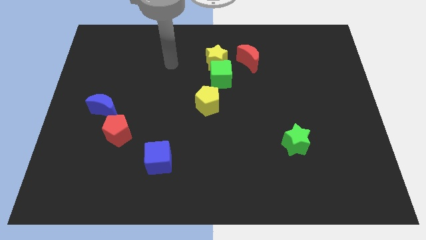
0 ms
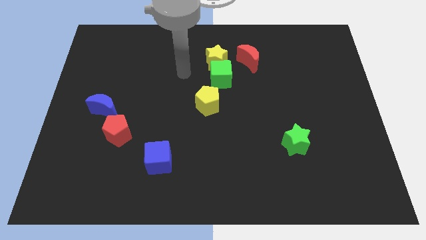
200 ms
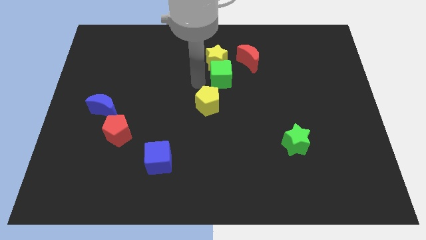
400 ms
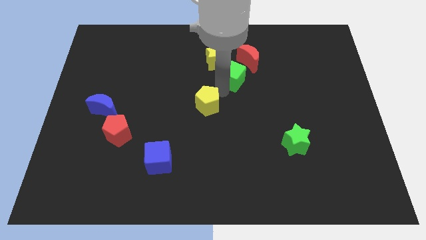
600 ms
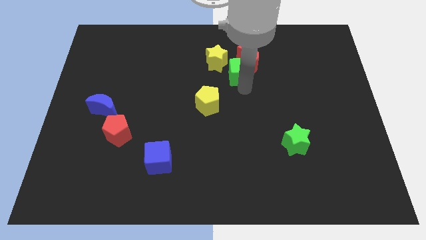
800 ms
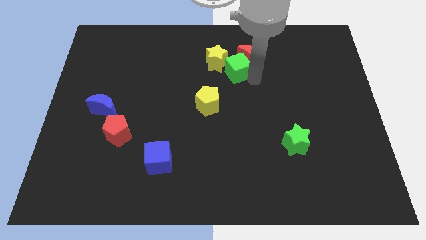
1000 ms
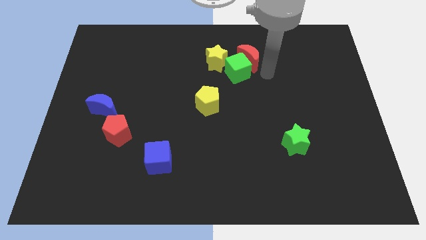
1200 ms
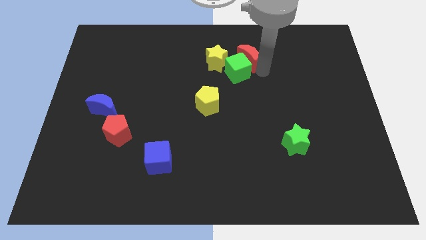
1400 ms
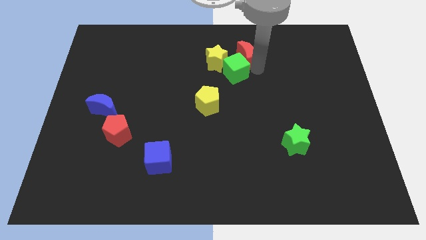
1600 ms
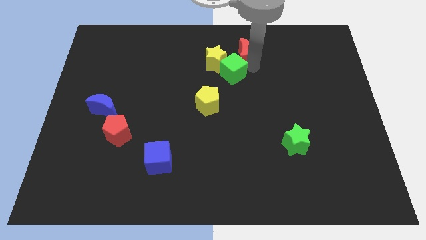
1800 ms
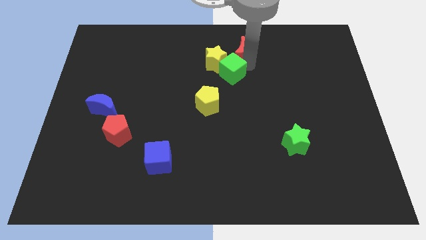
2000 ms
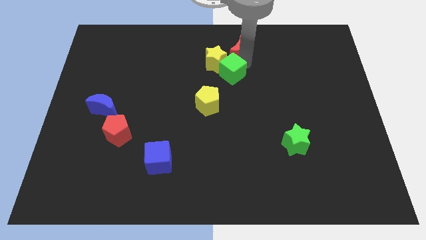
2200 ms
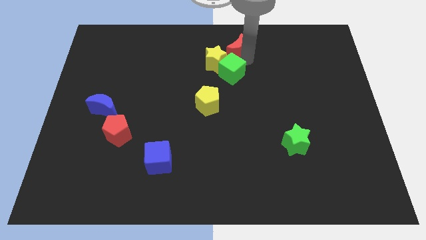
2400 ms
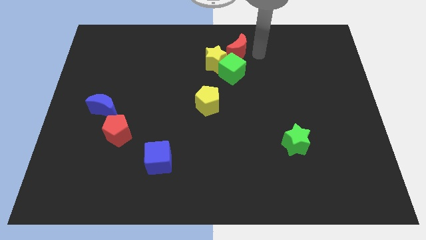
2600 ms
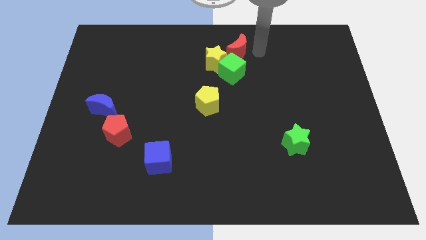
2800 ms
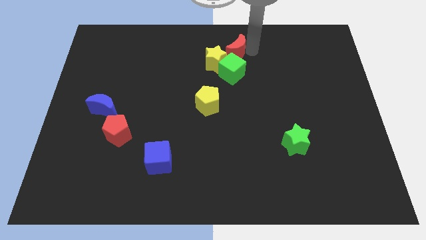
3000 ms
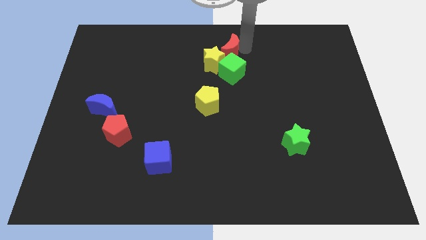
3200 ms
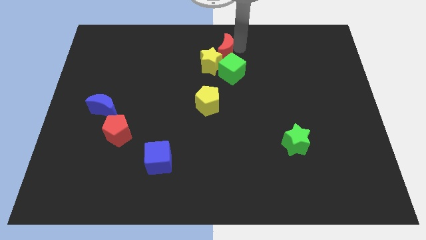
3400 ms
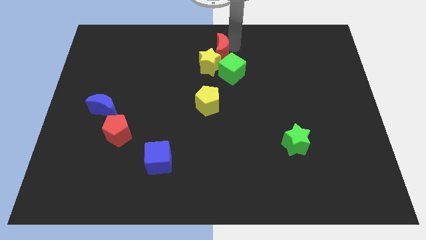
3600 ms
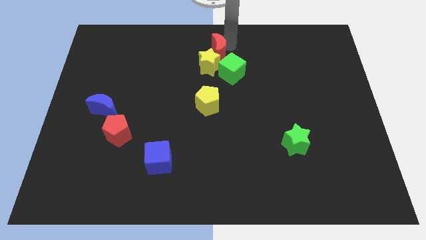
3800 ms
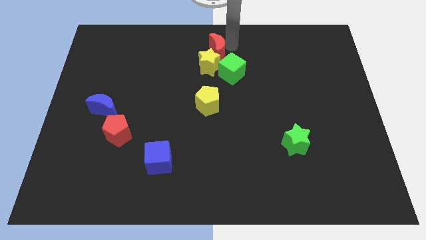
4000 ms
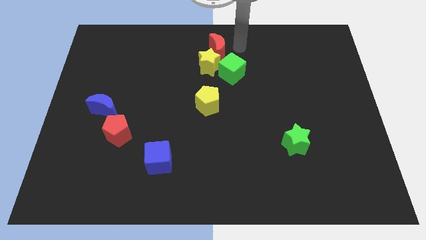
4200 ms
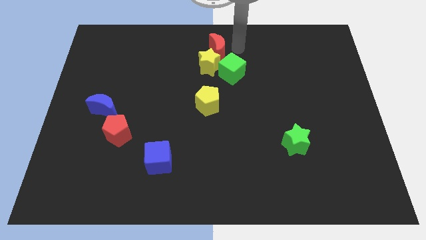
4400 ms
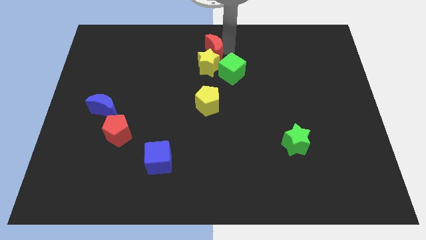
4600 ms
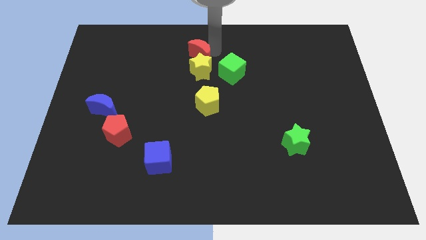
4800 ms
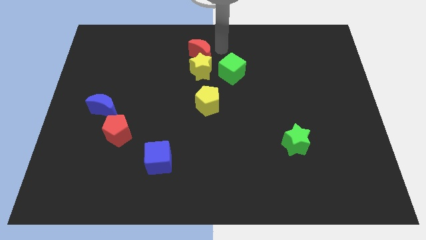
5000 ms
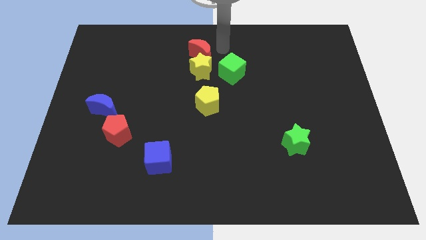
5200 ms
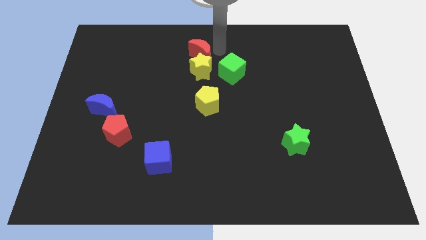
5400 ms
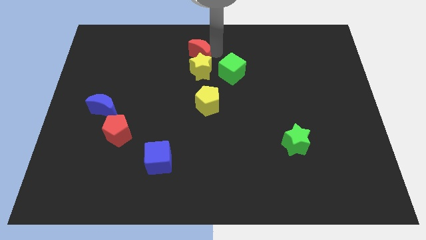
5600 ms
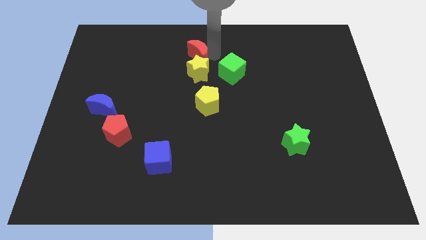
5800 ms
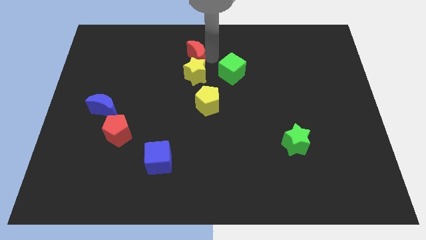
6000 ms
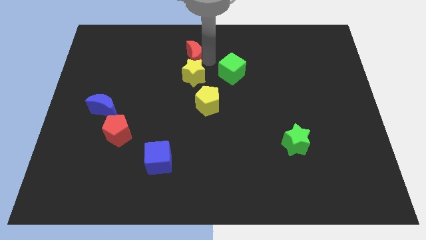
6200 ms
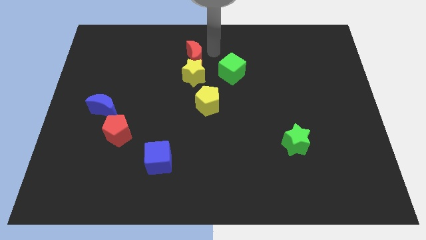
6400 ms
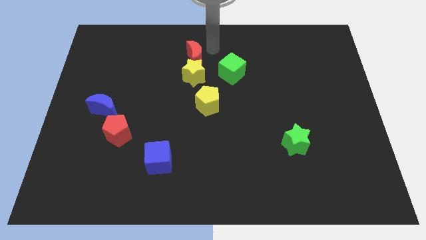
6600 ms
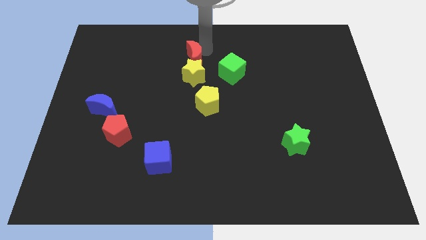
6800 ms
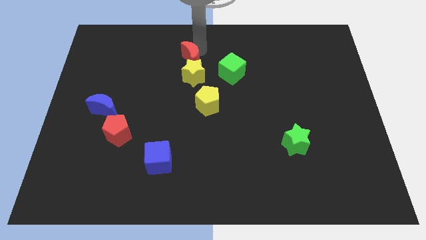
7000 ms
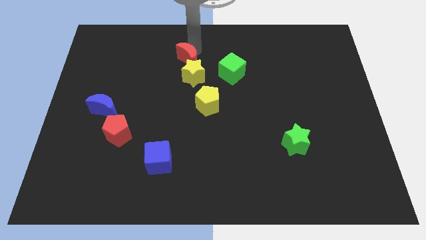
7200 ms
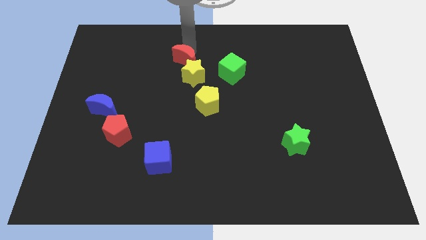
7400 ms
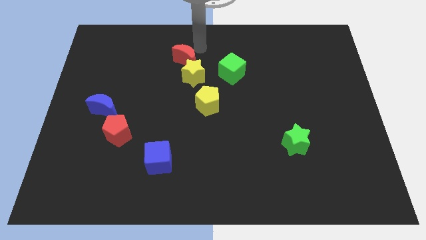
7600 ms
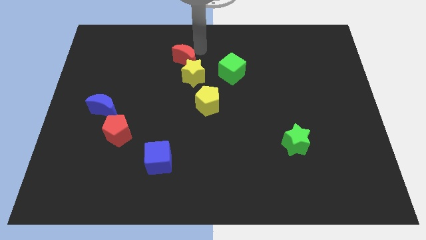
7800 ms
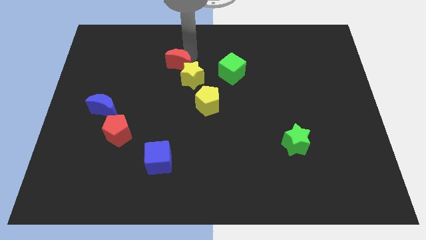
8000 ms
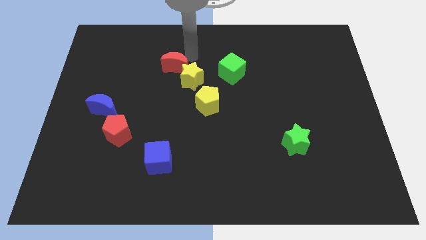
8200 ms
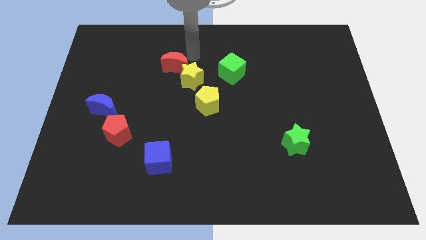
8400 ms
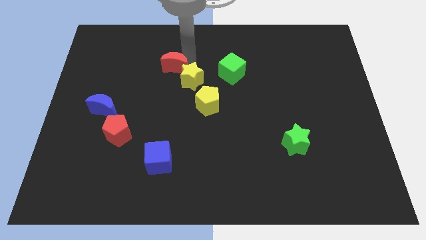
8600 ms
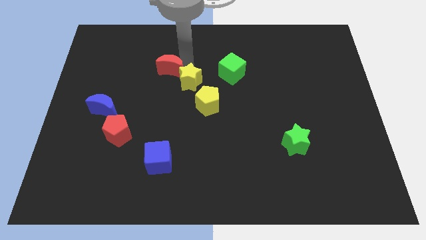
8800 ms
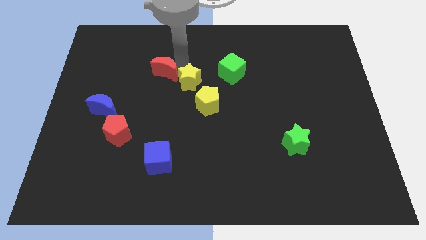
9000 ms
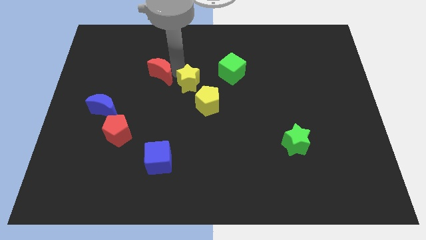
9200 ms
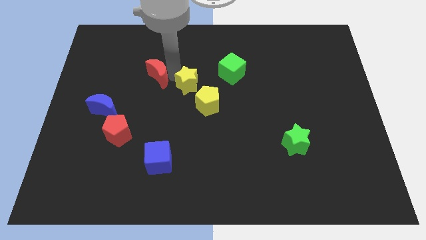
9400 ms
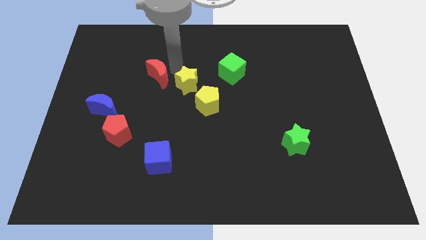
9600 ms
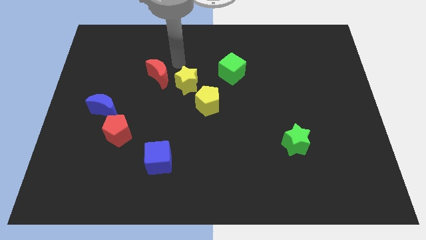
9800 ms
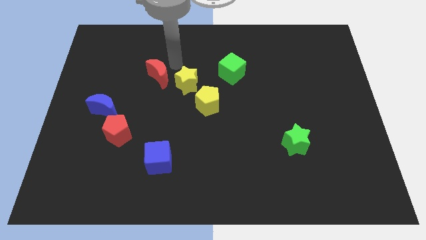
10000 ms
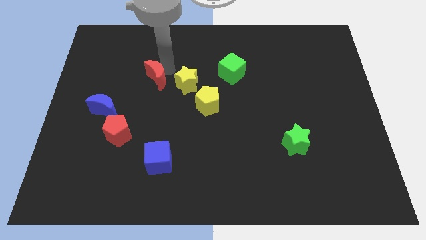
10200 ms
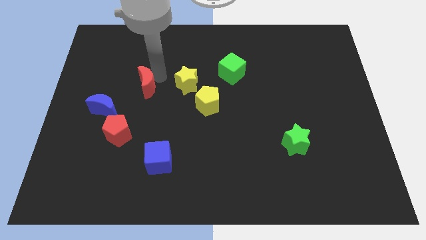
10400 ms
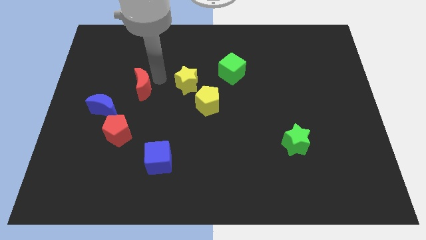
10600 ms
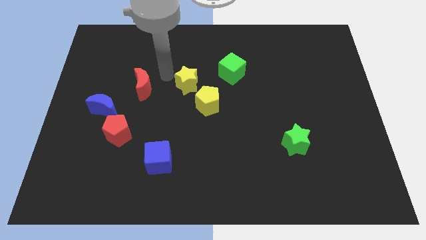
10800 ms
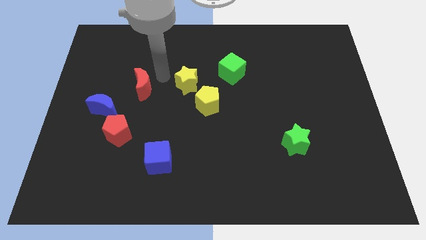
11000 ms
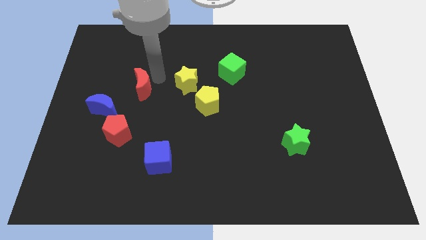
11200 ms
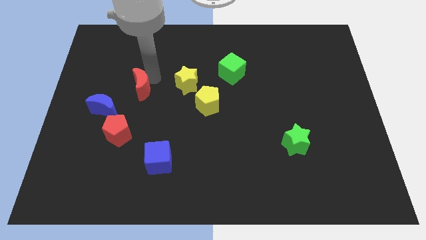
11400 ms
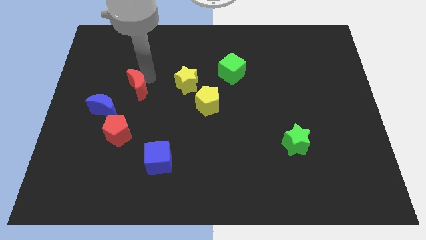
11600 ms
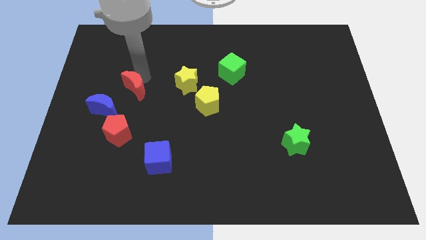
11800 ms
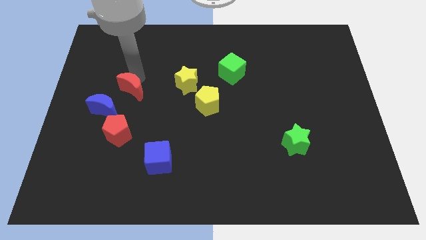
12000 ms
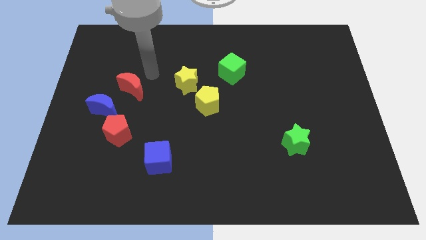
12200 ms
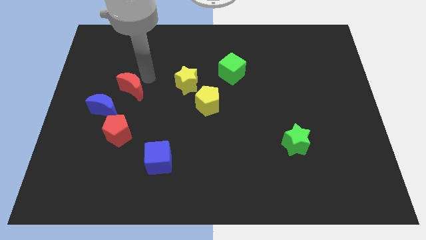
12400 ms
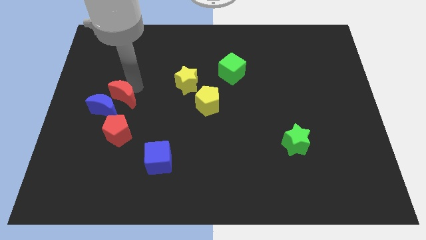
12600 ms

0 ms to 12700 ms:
push the red moon to the blue moon

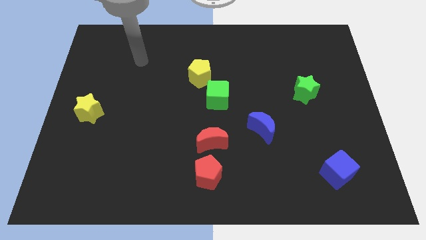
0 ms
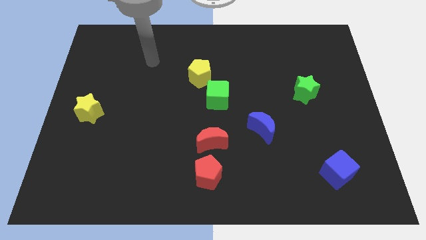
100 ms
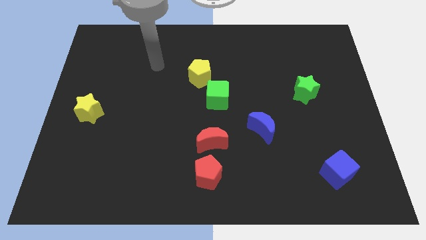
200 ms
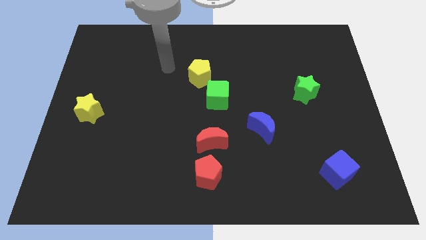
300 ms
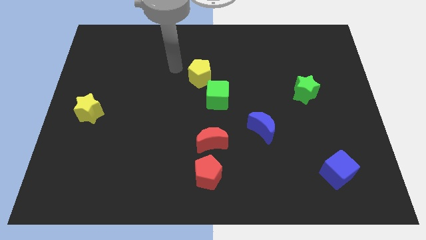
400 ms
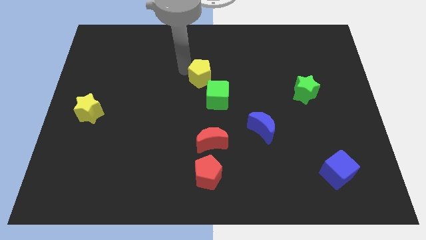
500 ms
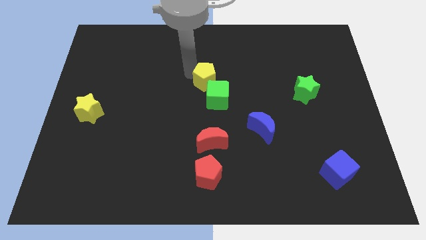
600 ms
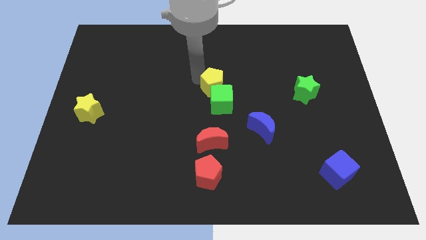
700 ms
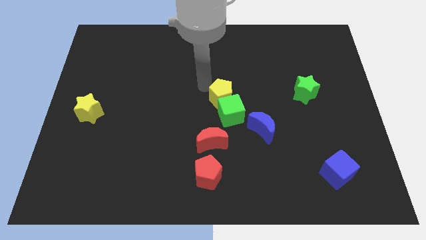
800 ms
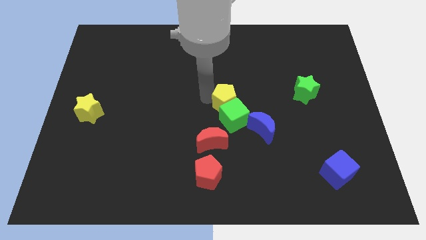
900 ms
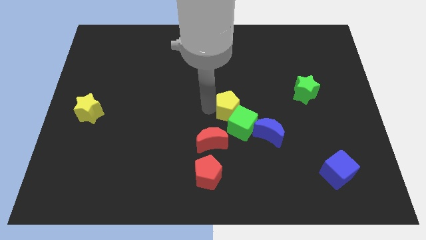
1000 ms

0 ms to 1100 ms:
push the green cube to the blue moon
